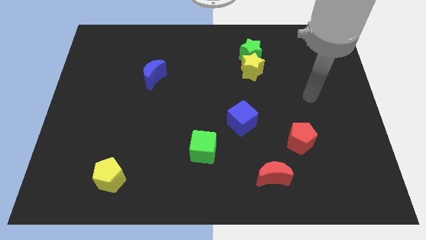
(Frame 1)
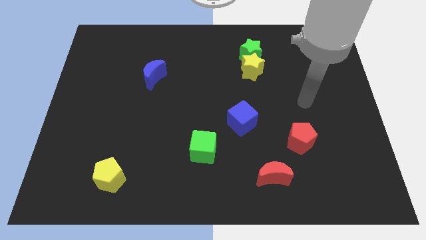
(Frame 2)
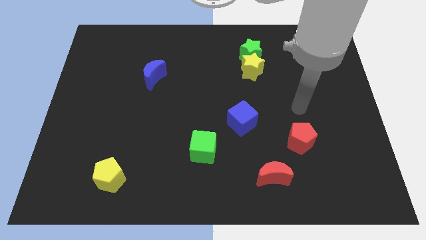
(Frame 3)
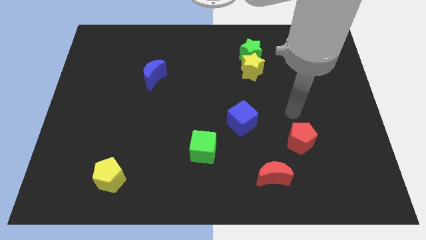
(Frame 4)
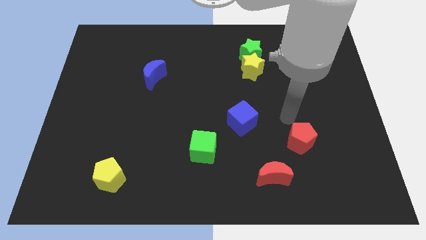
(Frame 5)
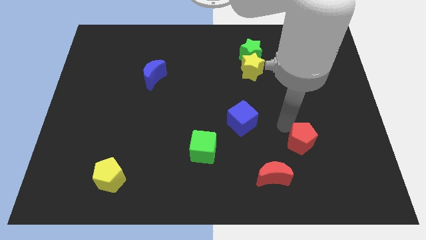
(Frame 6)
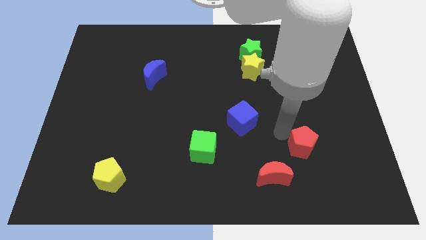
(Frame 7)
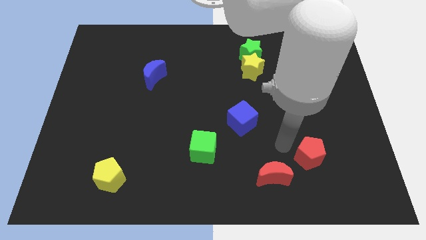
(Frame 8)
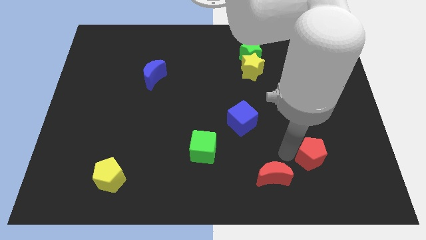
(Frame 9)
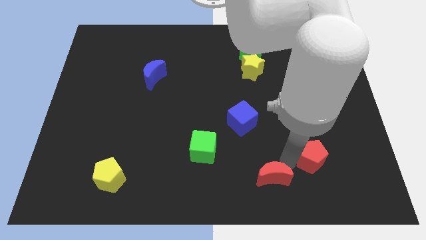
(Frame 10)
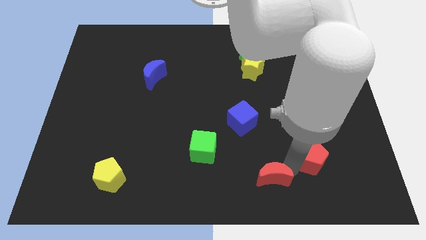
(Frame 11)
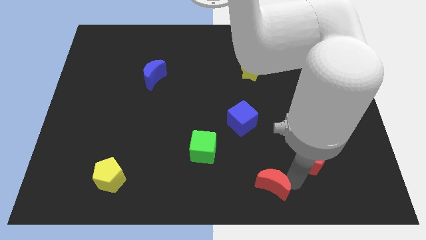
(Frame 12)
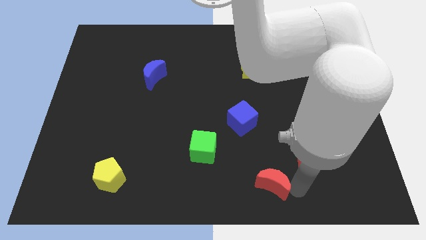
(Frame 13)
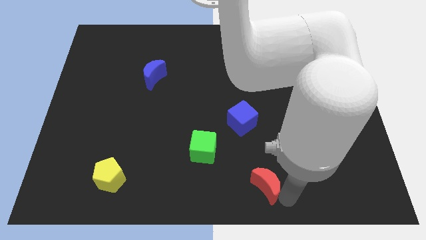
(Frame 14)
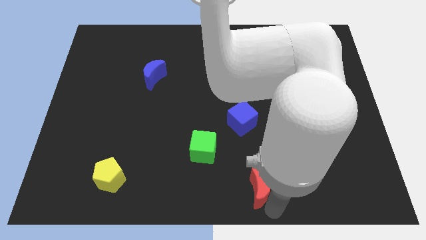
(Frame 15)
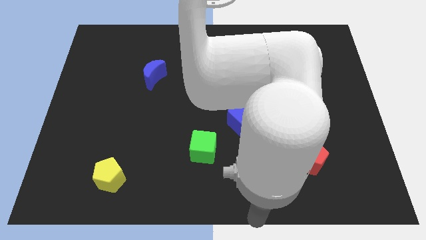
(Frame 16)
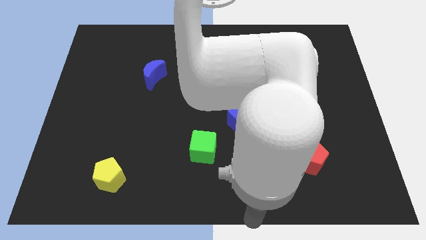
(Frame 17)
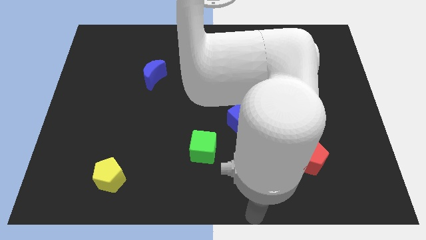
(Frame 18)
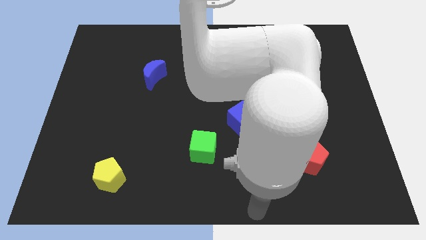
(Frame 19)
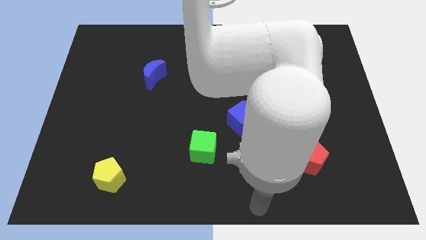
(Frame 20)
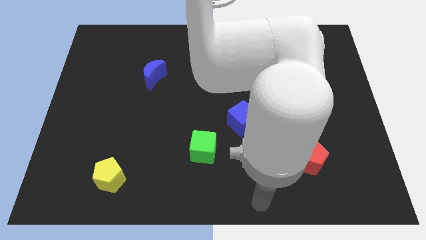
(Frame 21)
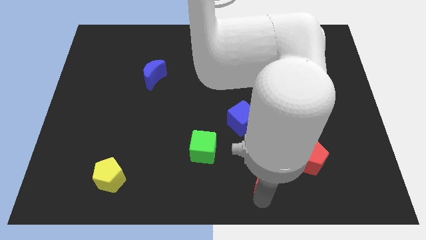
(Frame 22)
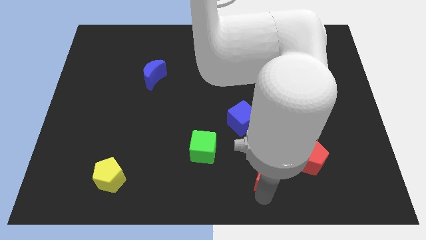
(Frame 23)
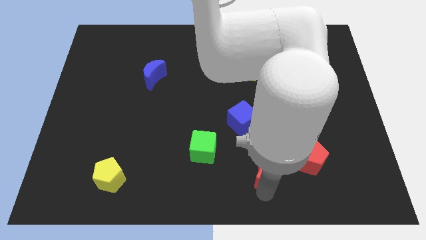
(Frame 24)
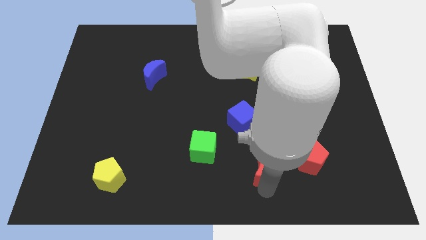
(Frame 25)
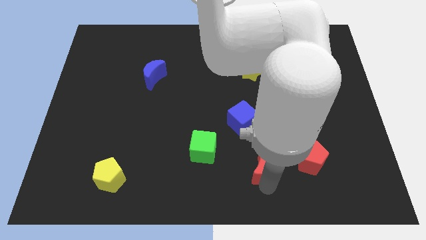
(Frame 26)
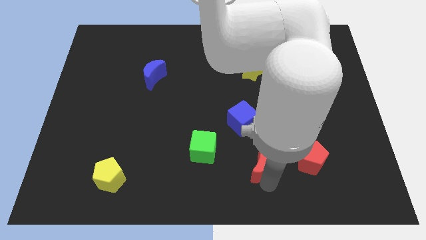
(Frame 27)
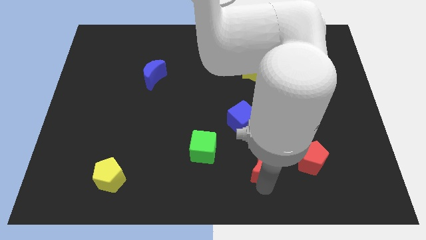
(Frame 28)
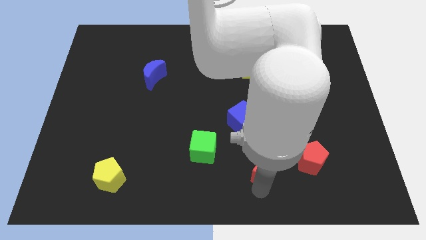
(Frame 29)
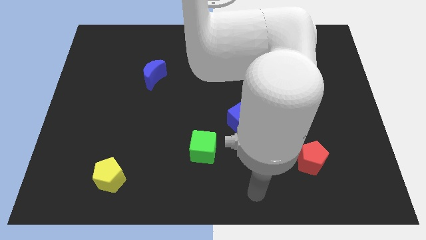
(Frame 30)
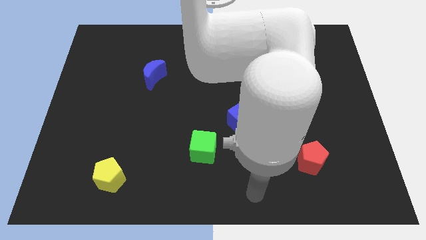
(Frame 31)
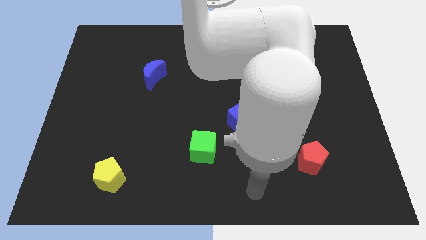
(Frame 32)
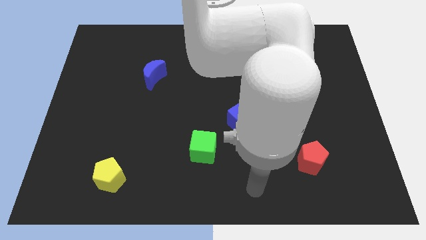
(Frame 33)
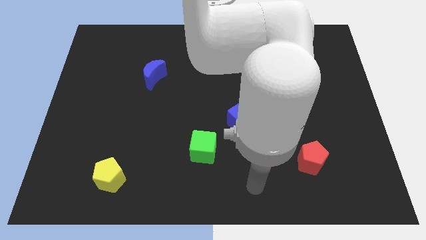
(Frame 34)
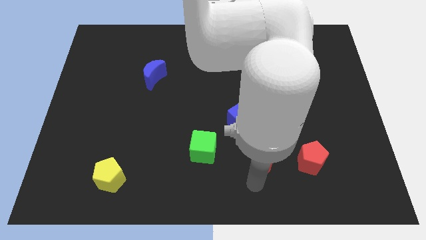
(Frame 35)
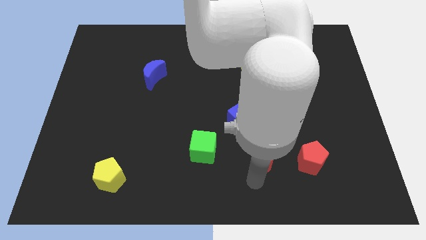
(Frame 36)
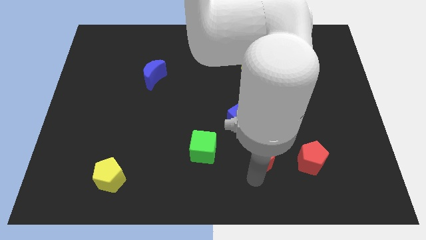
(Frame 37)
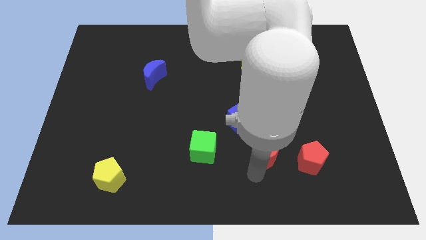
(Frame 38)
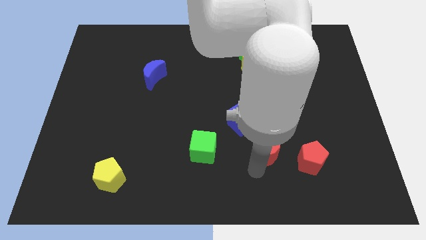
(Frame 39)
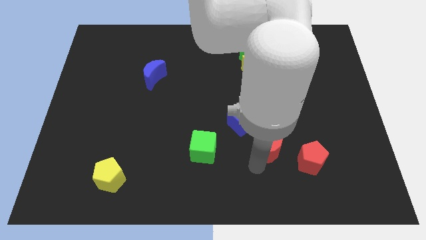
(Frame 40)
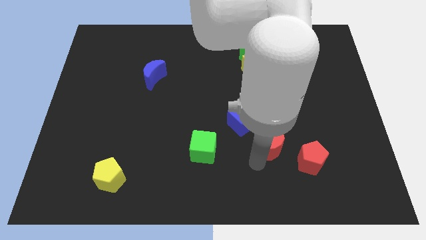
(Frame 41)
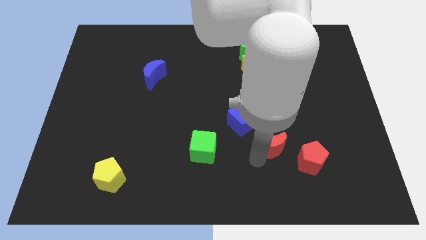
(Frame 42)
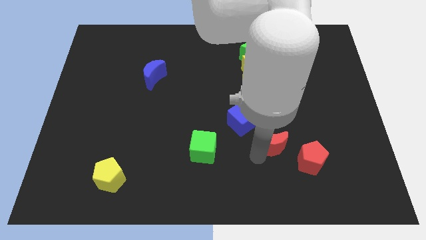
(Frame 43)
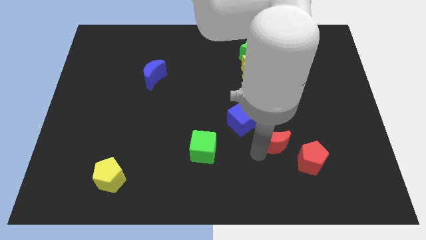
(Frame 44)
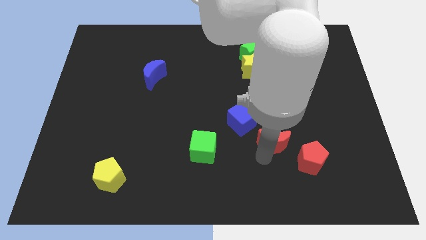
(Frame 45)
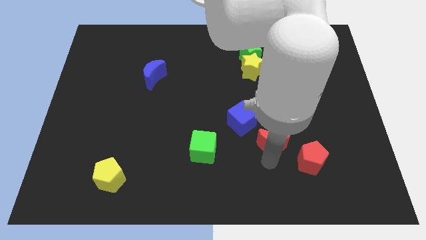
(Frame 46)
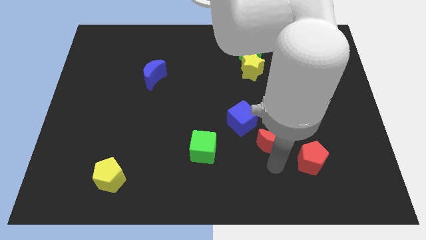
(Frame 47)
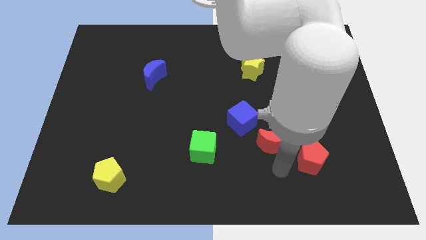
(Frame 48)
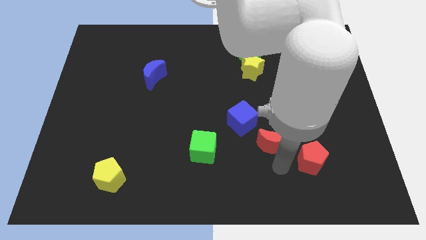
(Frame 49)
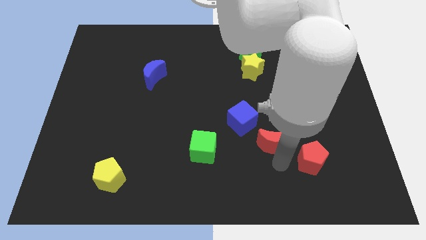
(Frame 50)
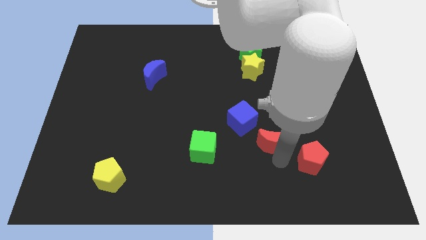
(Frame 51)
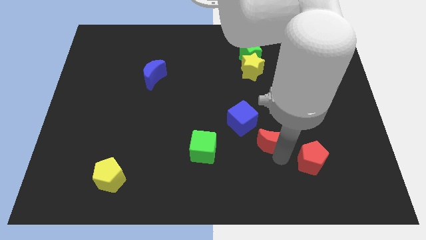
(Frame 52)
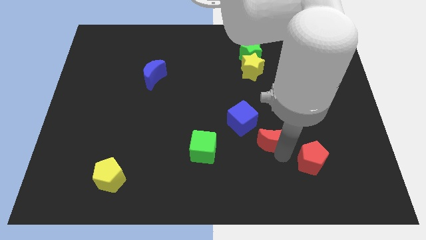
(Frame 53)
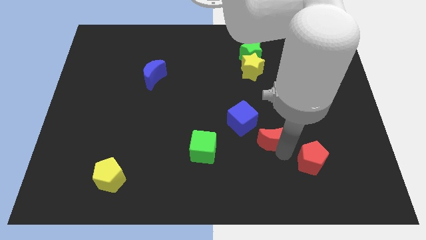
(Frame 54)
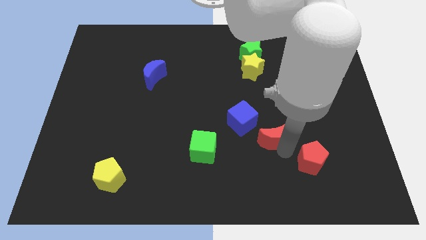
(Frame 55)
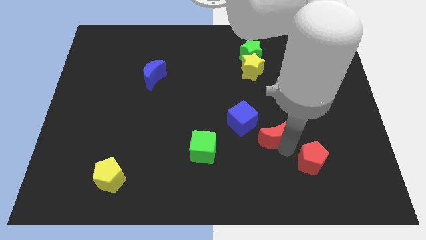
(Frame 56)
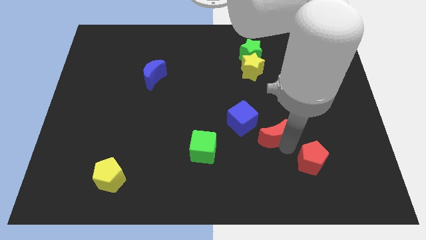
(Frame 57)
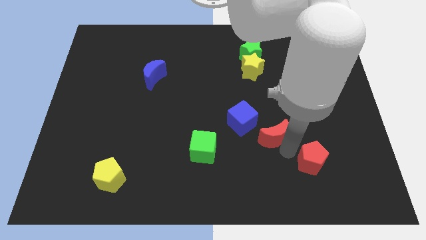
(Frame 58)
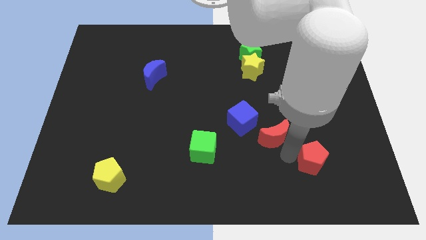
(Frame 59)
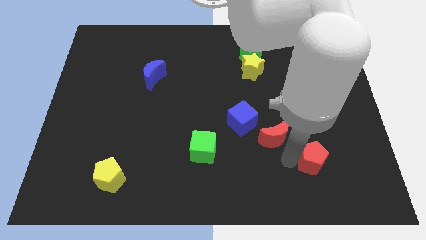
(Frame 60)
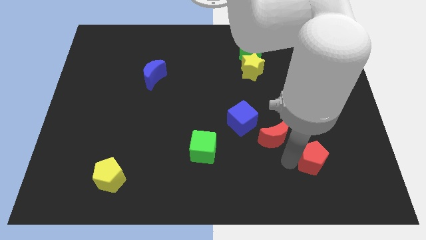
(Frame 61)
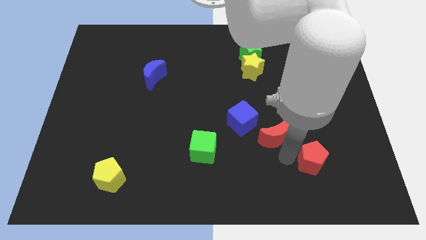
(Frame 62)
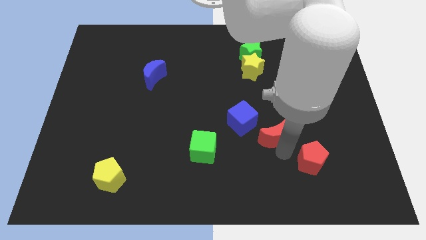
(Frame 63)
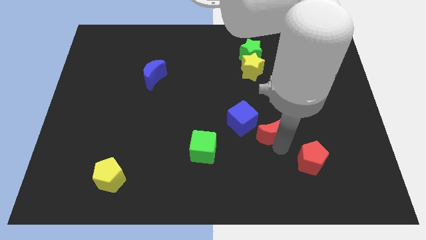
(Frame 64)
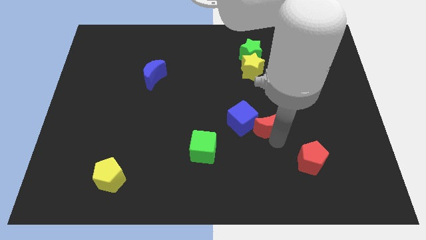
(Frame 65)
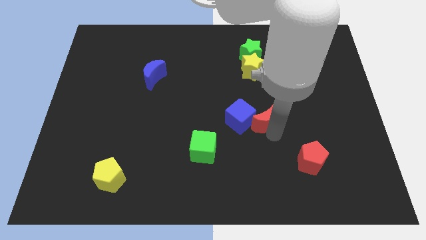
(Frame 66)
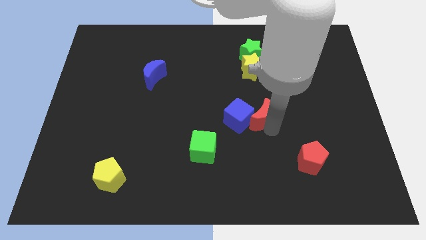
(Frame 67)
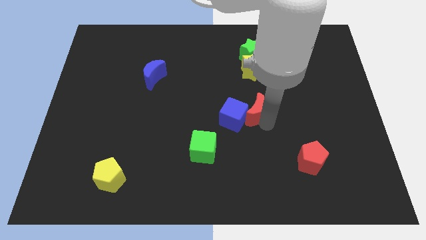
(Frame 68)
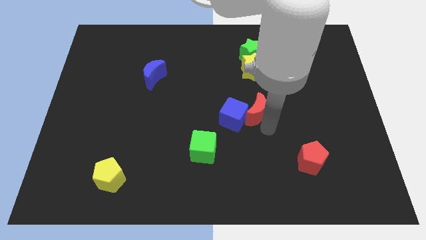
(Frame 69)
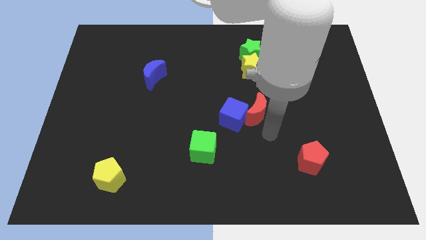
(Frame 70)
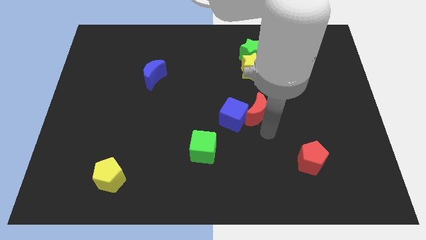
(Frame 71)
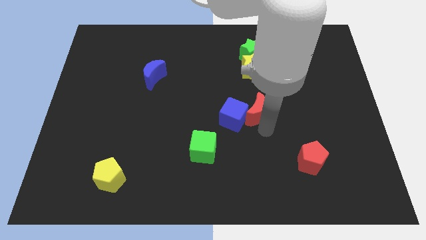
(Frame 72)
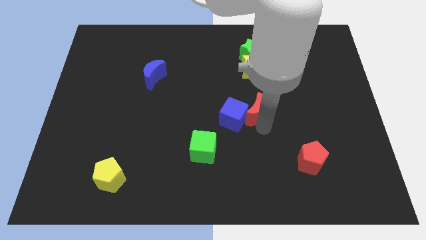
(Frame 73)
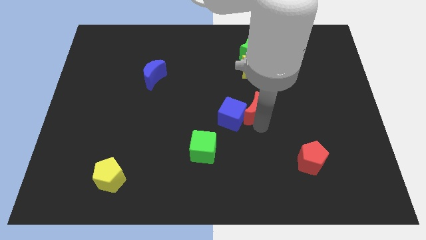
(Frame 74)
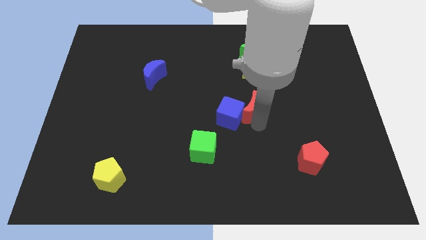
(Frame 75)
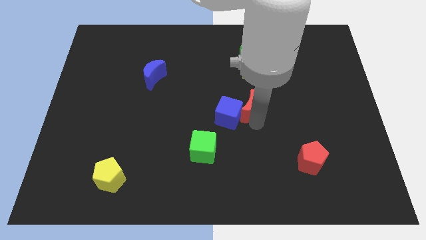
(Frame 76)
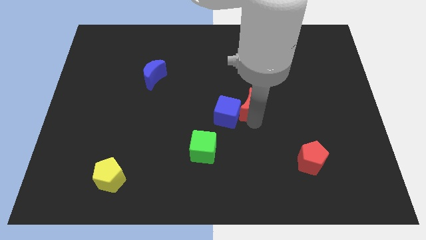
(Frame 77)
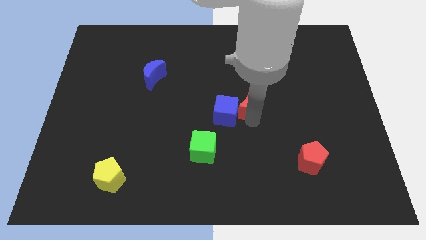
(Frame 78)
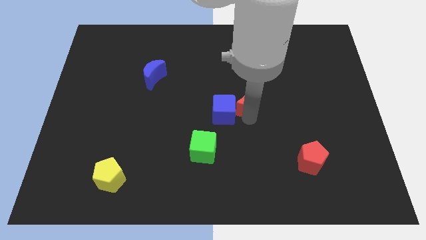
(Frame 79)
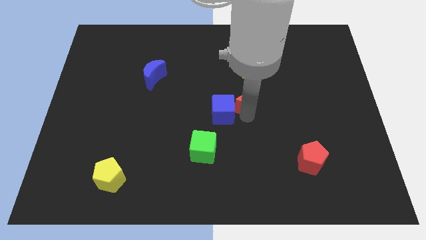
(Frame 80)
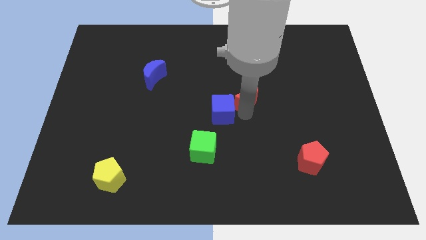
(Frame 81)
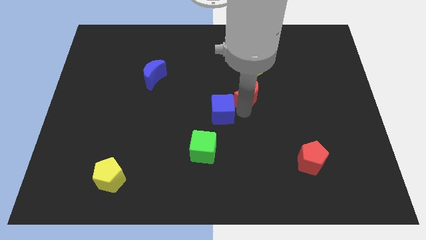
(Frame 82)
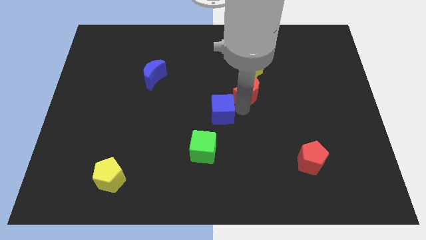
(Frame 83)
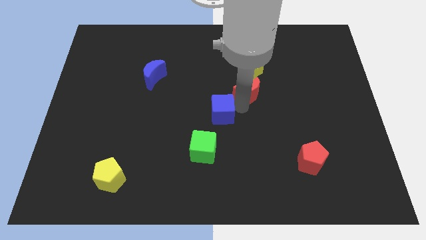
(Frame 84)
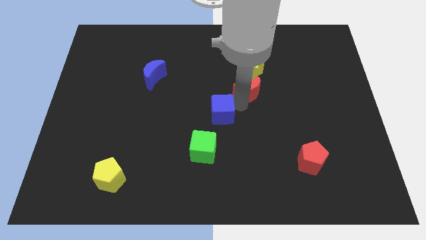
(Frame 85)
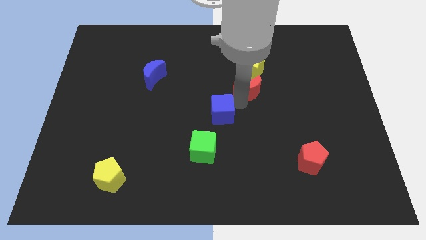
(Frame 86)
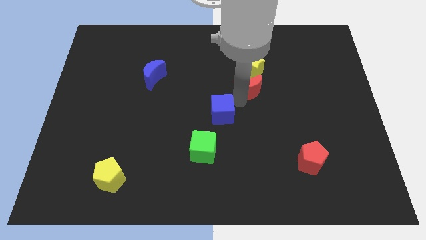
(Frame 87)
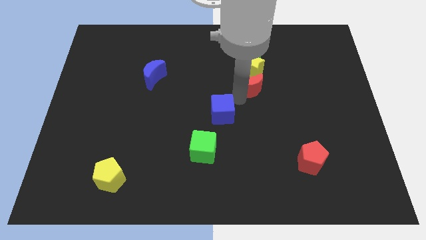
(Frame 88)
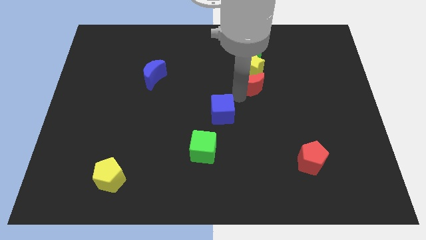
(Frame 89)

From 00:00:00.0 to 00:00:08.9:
push the red moon close to the yellow star
